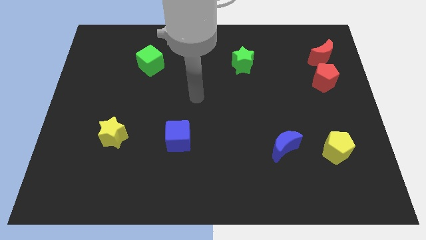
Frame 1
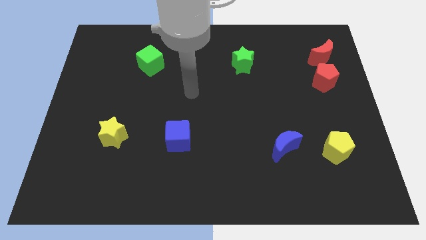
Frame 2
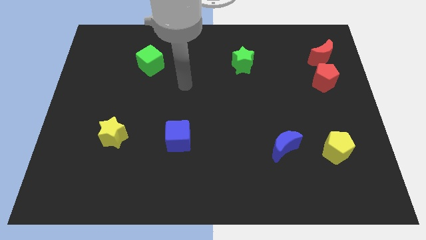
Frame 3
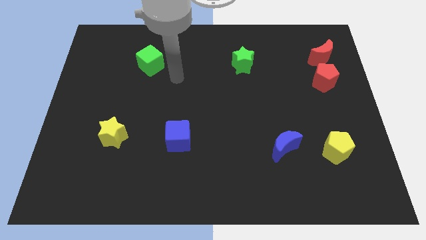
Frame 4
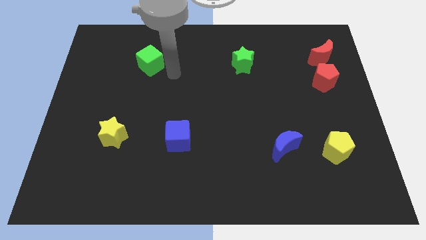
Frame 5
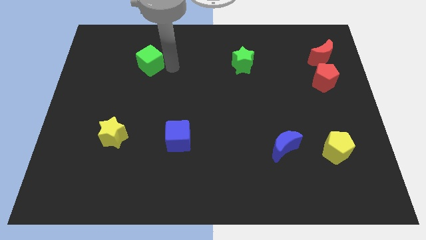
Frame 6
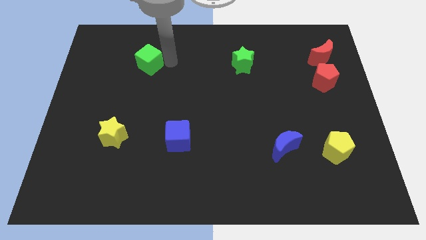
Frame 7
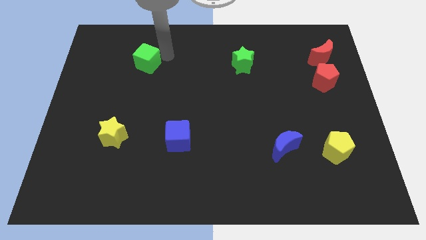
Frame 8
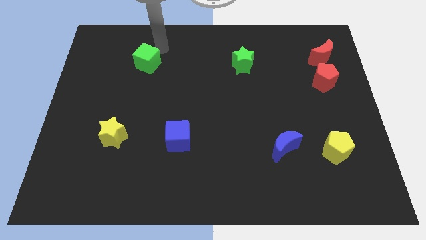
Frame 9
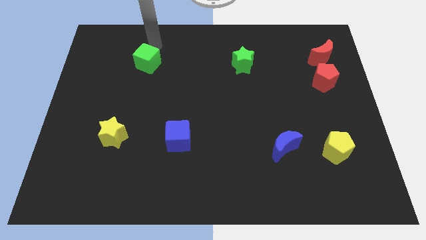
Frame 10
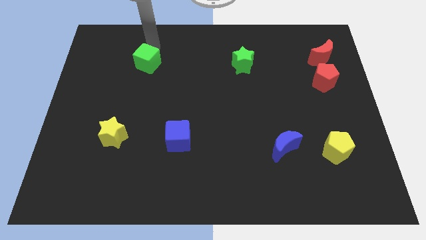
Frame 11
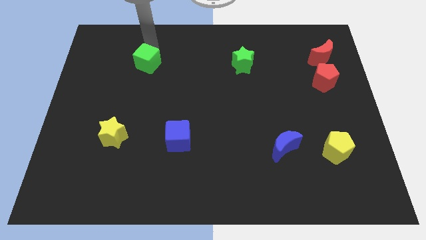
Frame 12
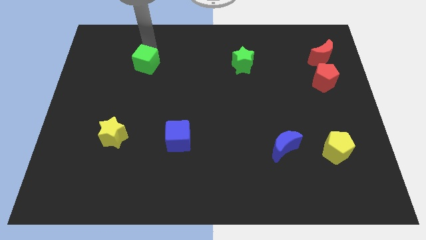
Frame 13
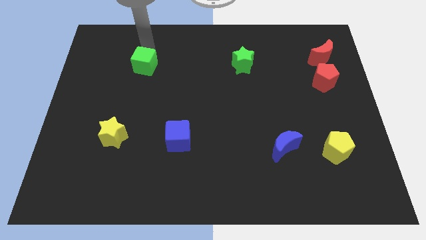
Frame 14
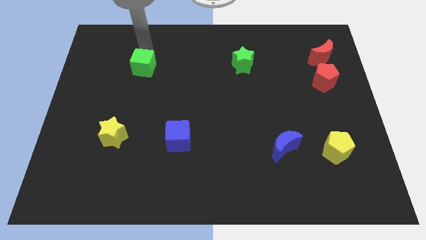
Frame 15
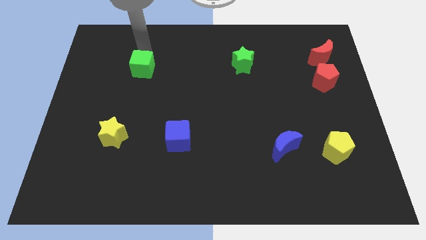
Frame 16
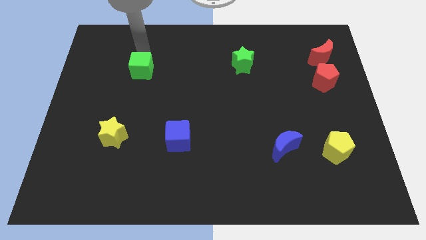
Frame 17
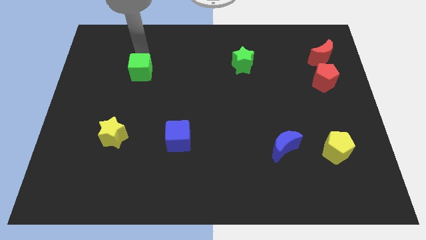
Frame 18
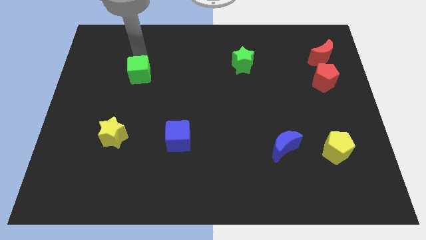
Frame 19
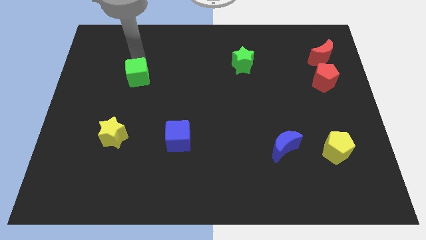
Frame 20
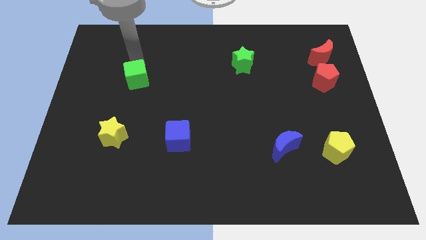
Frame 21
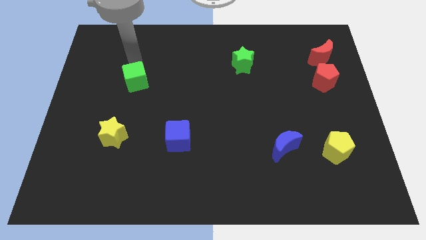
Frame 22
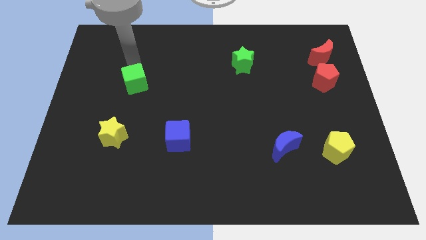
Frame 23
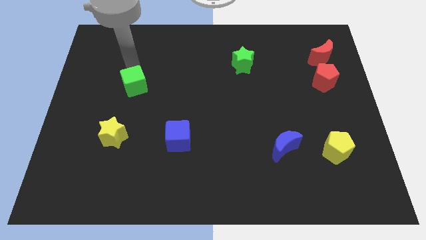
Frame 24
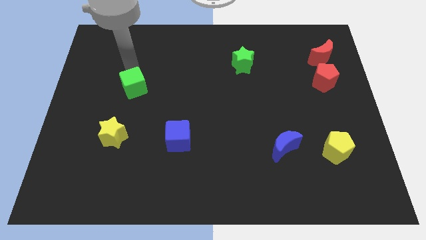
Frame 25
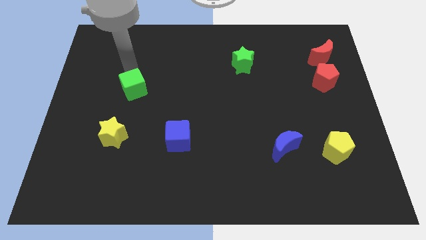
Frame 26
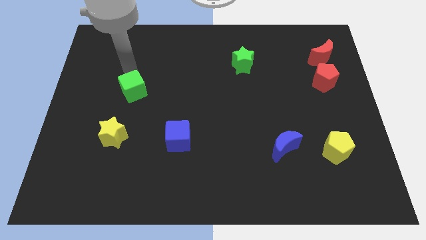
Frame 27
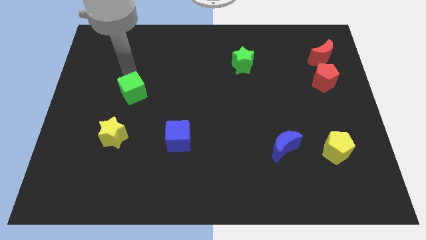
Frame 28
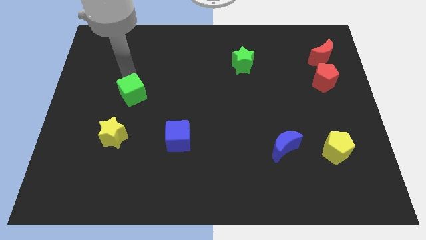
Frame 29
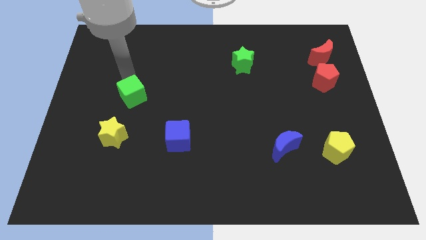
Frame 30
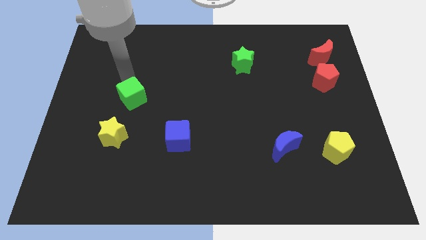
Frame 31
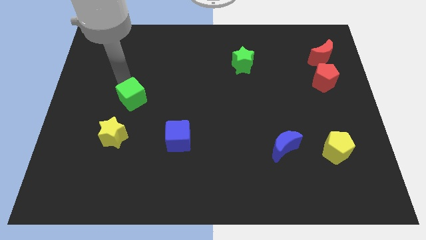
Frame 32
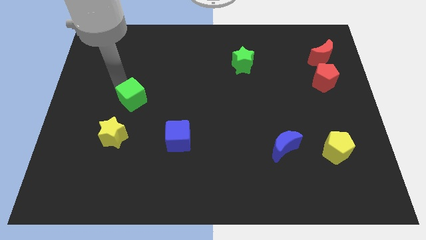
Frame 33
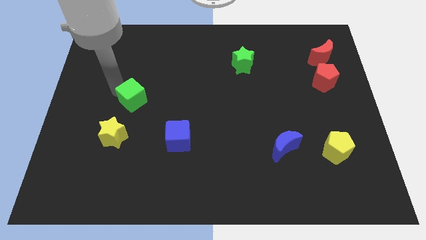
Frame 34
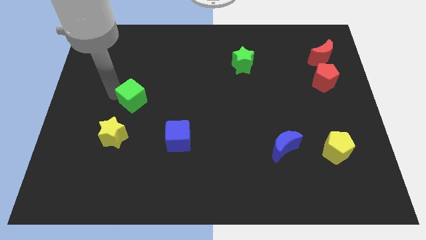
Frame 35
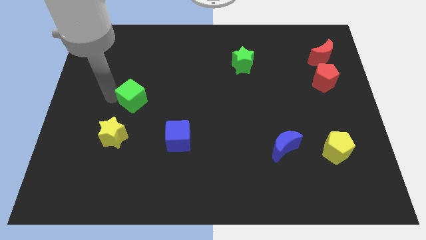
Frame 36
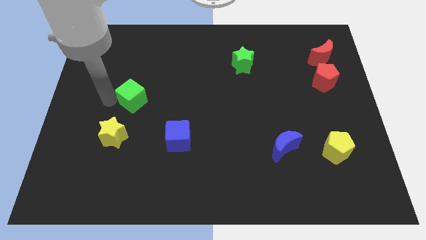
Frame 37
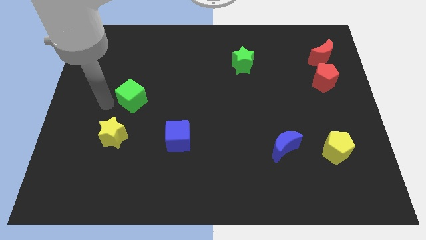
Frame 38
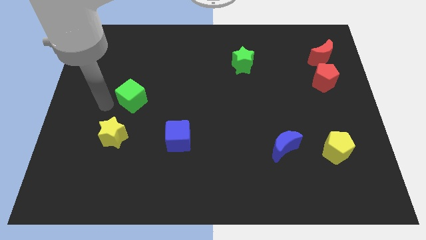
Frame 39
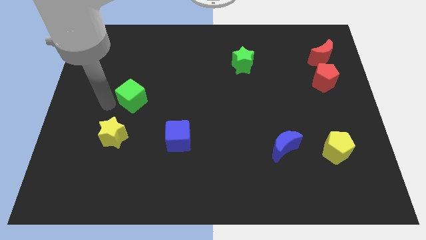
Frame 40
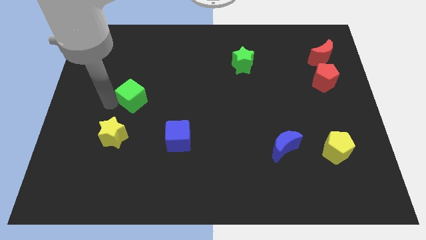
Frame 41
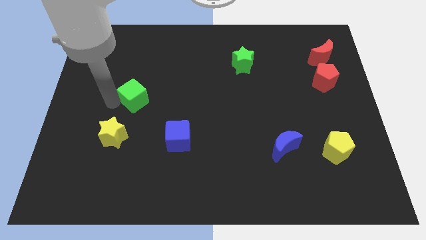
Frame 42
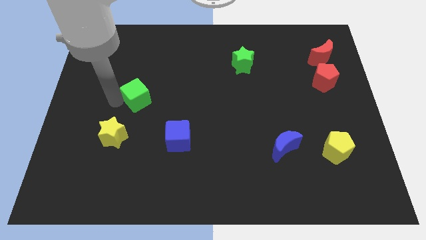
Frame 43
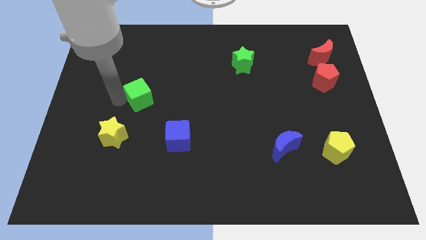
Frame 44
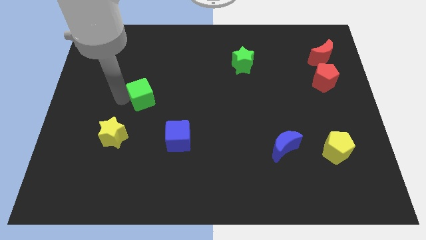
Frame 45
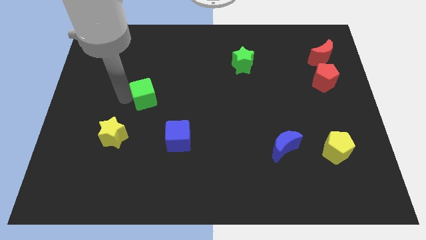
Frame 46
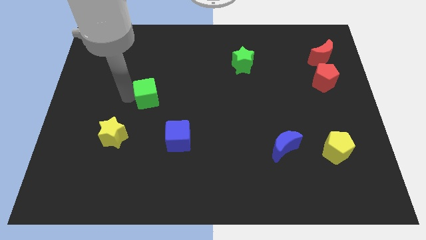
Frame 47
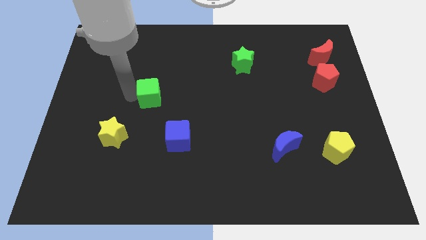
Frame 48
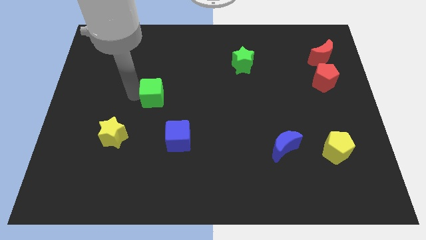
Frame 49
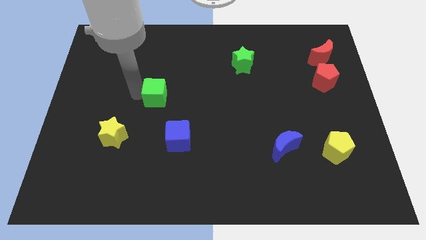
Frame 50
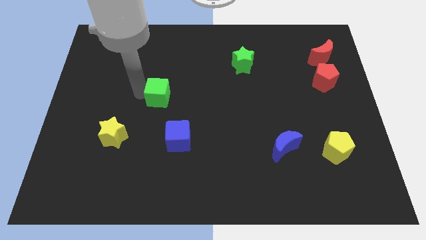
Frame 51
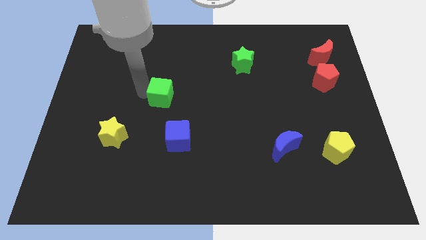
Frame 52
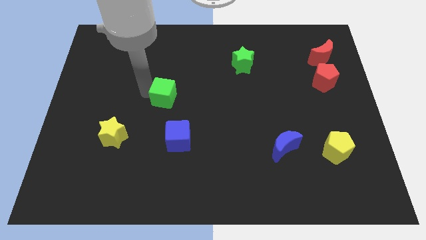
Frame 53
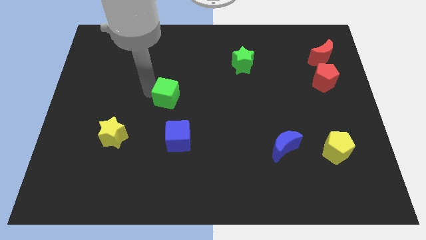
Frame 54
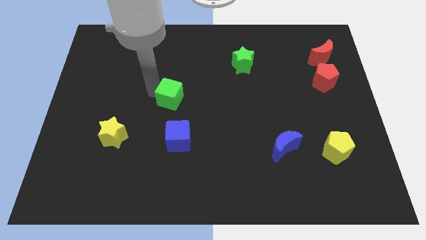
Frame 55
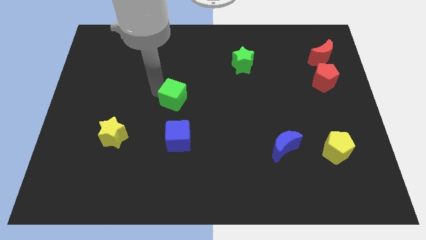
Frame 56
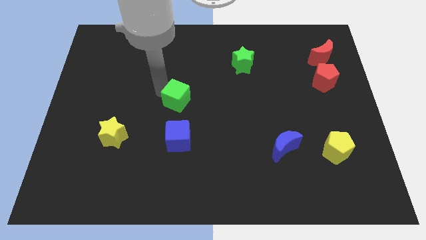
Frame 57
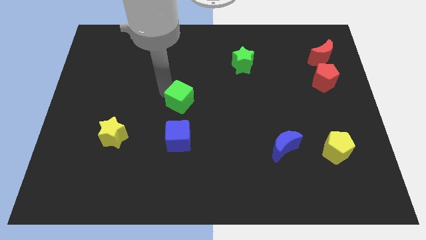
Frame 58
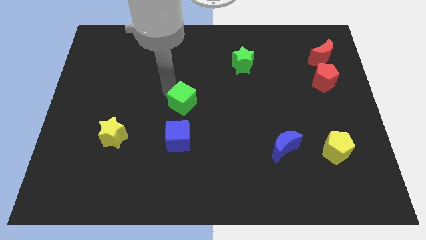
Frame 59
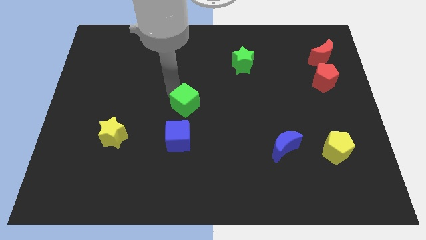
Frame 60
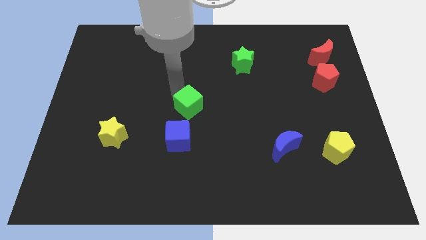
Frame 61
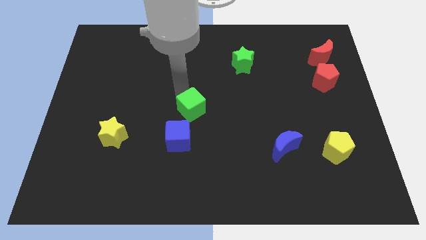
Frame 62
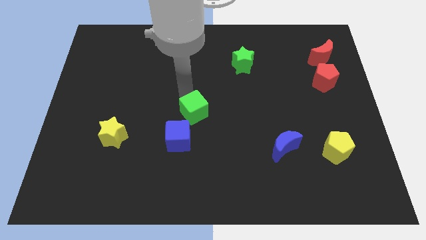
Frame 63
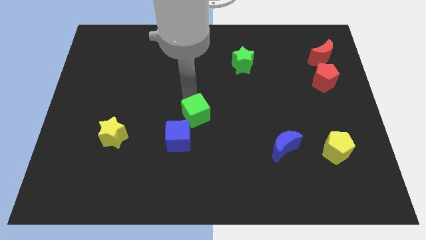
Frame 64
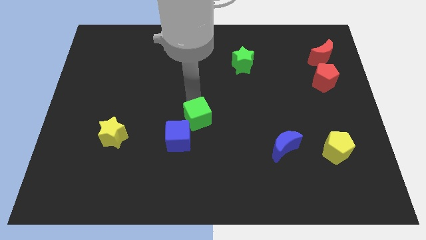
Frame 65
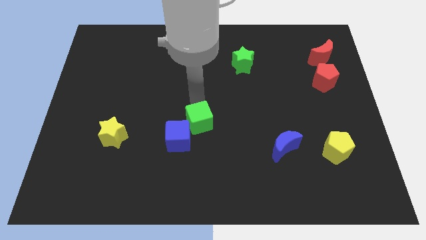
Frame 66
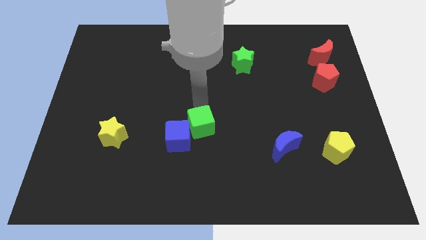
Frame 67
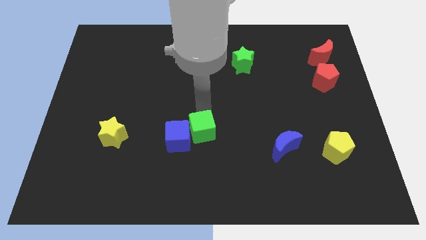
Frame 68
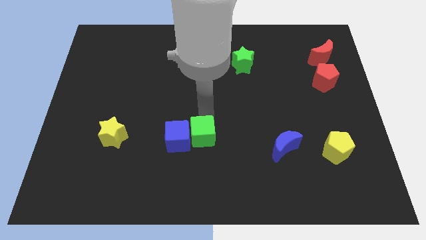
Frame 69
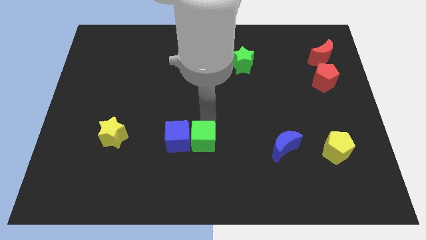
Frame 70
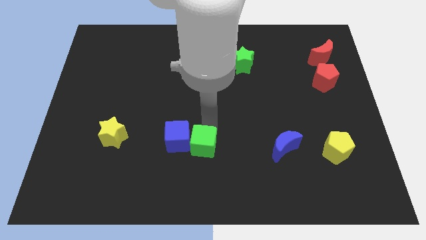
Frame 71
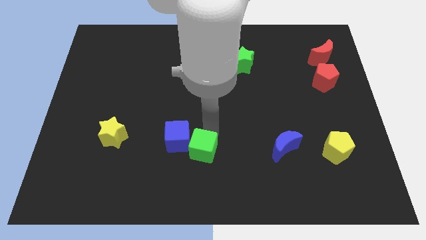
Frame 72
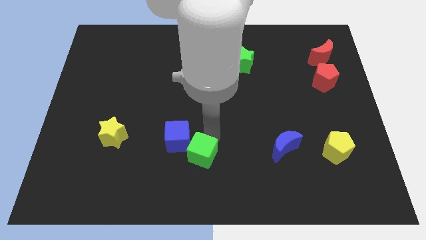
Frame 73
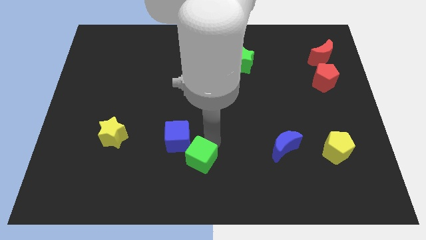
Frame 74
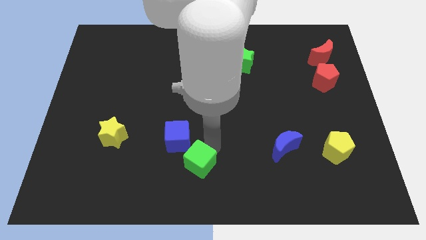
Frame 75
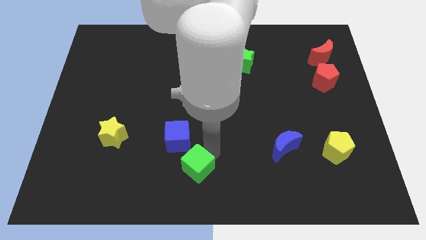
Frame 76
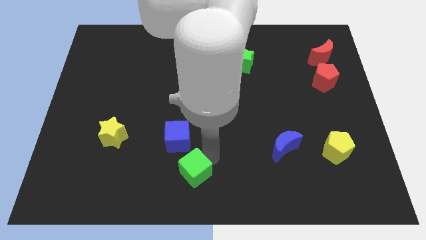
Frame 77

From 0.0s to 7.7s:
move the green cube downwards

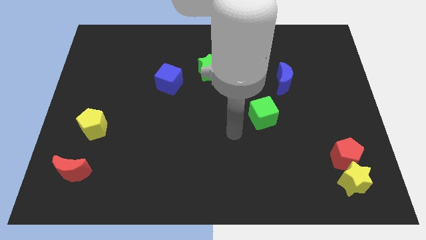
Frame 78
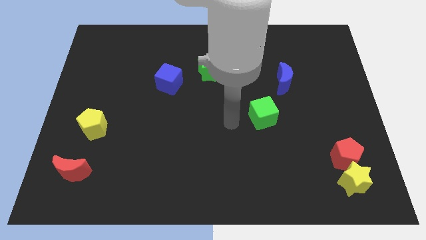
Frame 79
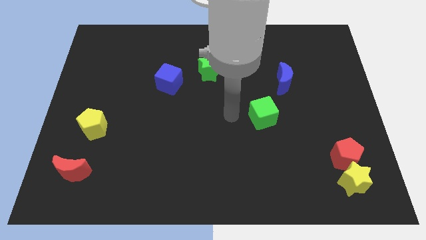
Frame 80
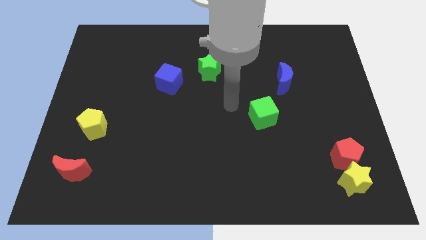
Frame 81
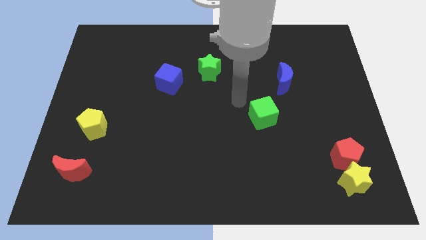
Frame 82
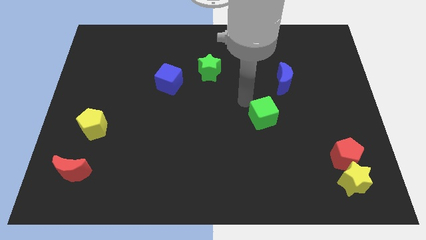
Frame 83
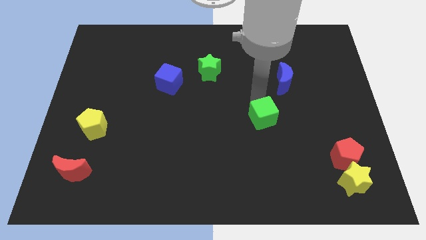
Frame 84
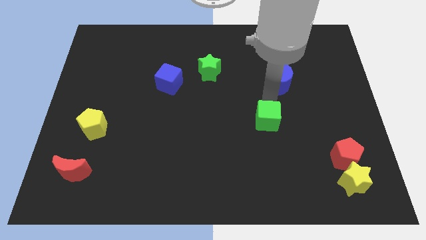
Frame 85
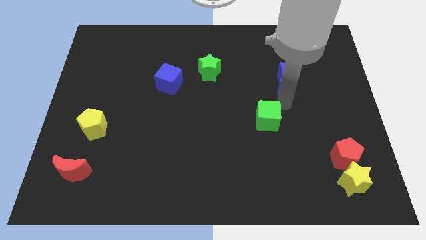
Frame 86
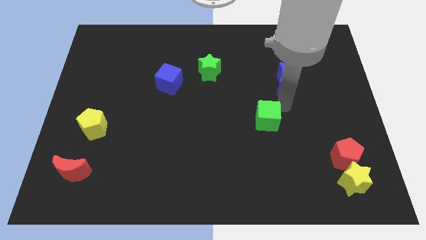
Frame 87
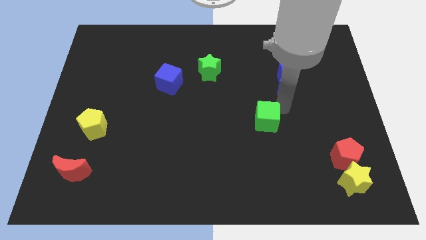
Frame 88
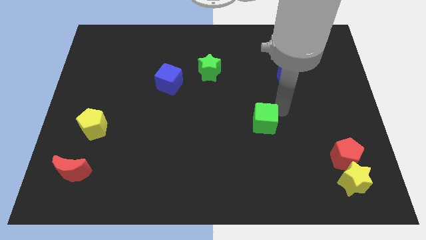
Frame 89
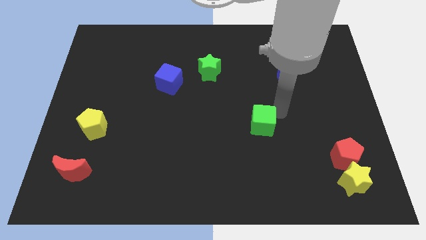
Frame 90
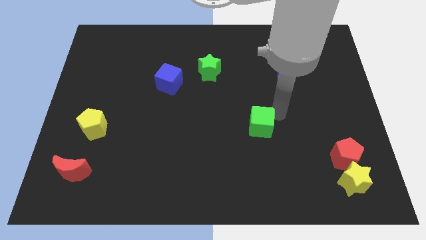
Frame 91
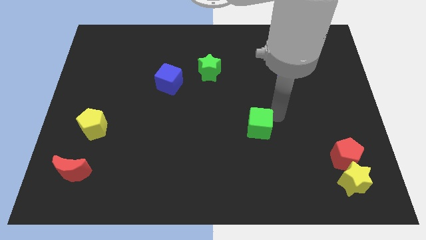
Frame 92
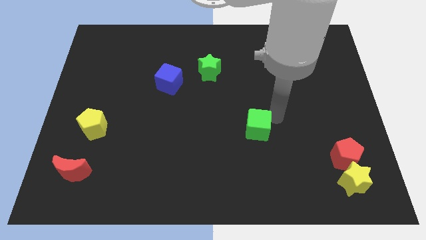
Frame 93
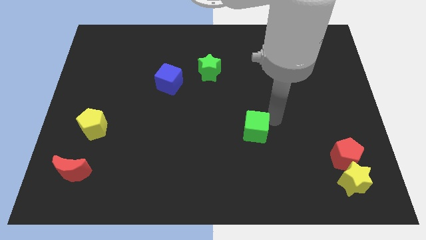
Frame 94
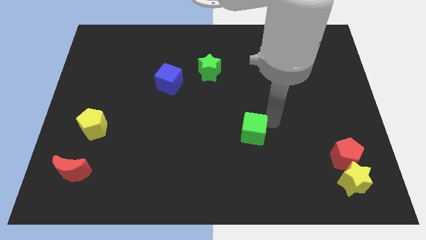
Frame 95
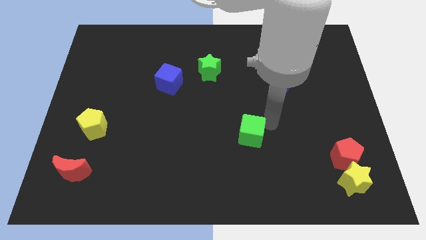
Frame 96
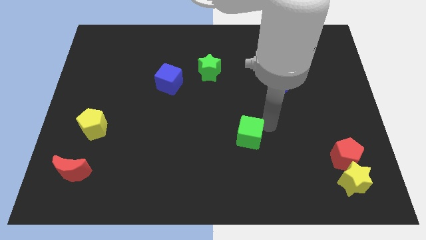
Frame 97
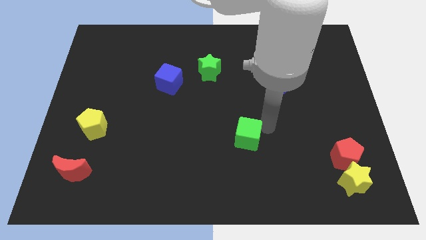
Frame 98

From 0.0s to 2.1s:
slightly push the green cube down and then to the left
